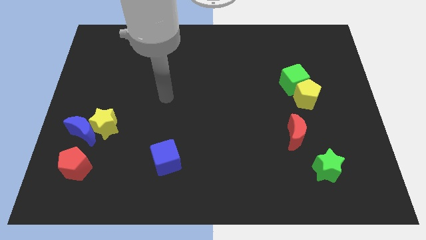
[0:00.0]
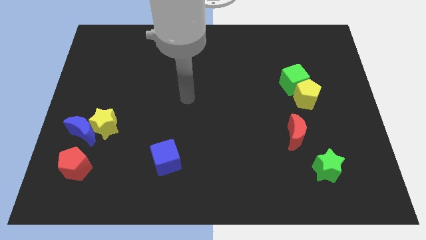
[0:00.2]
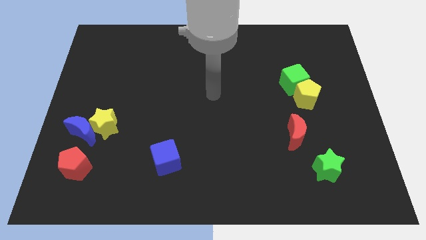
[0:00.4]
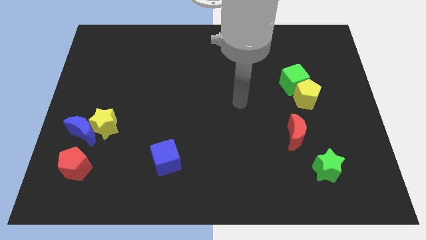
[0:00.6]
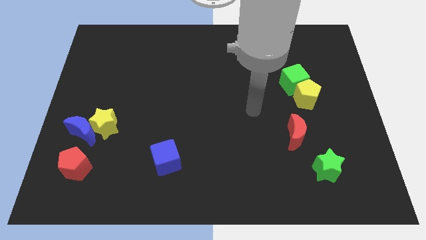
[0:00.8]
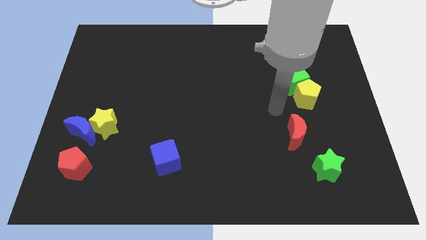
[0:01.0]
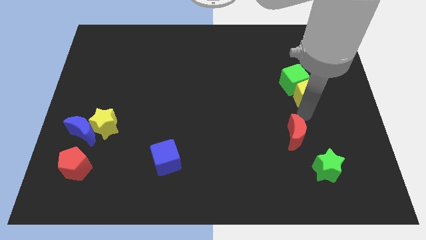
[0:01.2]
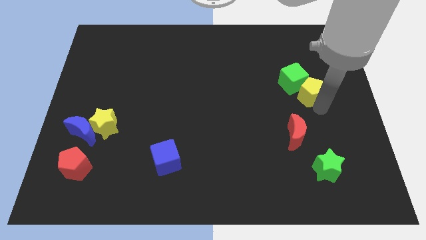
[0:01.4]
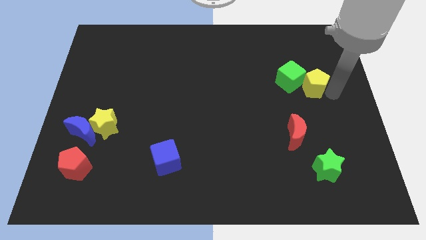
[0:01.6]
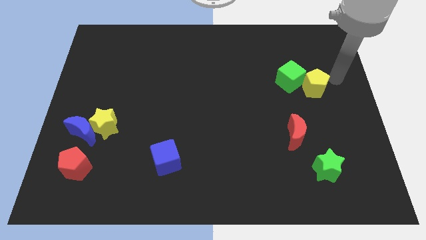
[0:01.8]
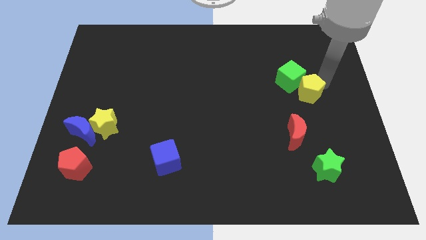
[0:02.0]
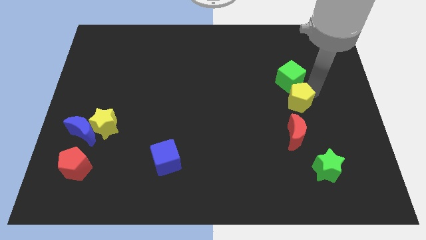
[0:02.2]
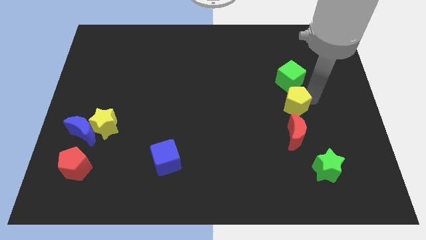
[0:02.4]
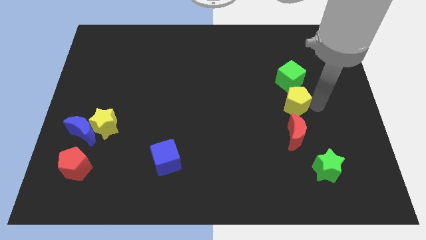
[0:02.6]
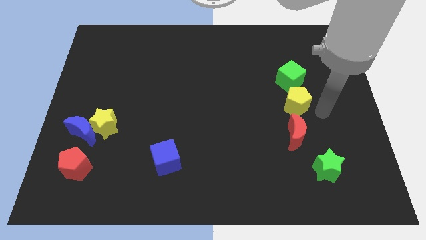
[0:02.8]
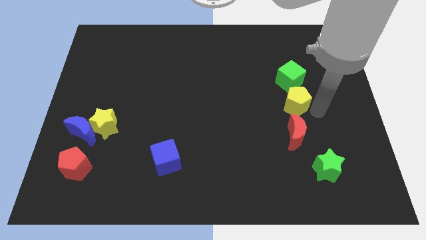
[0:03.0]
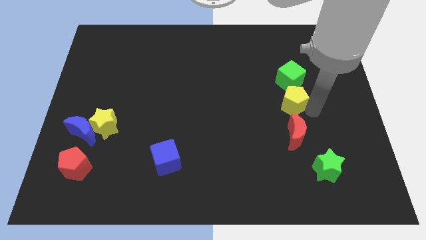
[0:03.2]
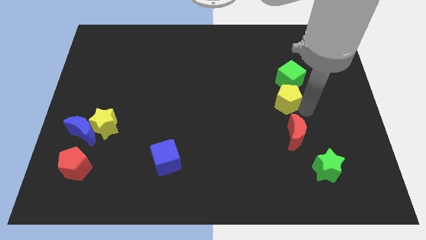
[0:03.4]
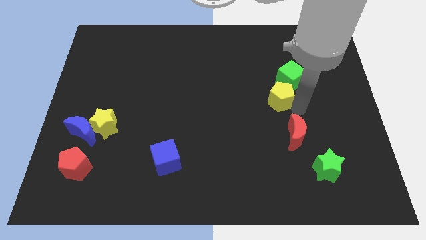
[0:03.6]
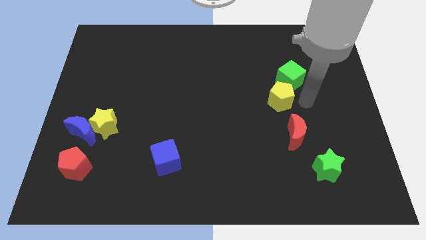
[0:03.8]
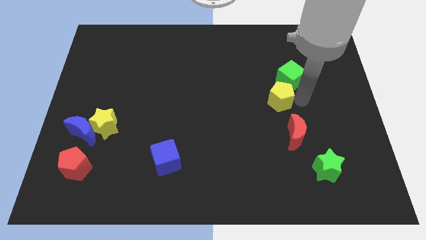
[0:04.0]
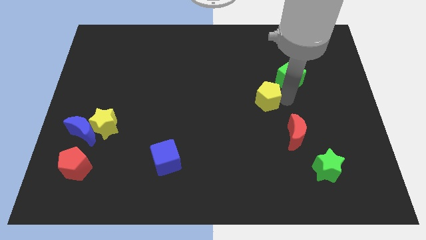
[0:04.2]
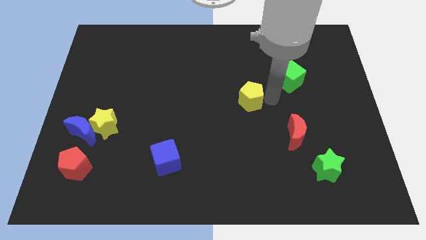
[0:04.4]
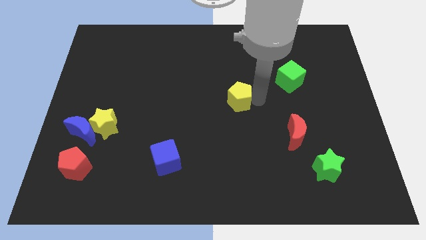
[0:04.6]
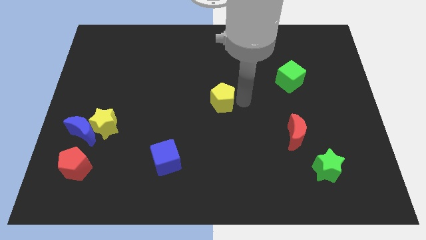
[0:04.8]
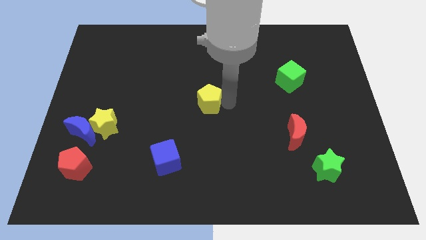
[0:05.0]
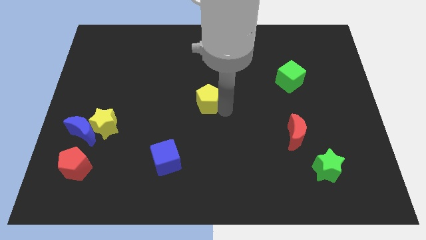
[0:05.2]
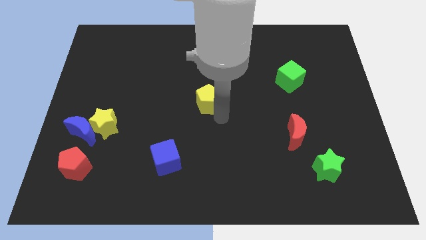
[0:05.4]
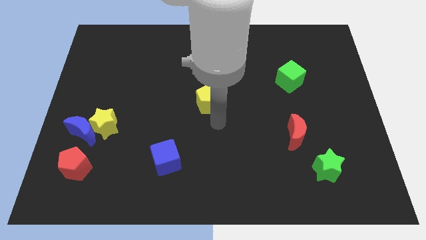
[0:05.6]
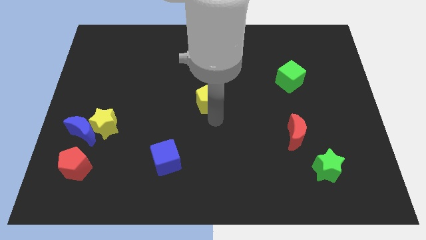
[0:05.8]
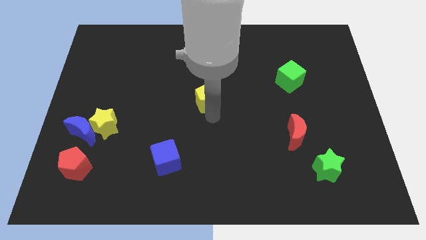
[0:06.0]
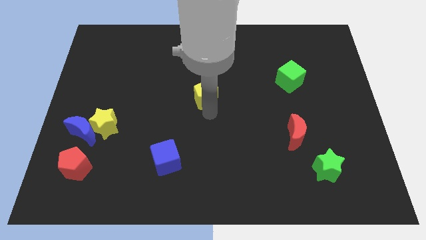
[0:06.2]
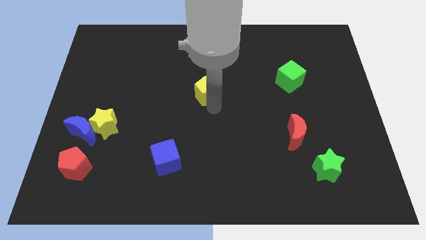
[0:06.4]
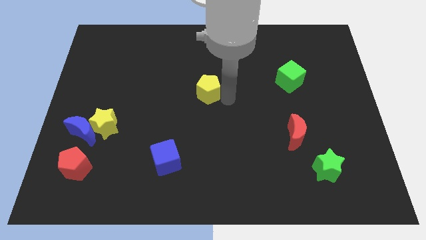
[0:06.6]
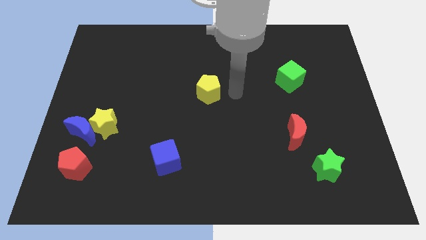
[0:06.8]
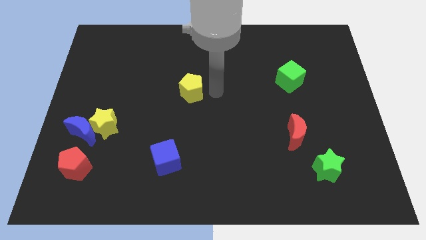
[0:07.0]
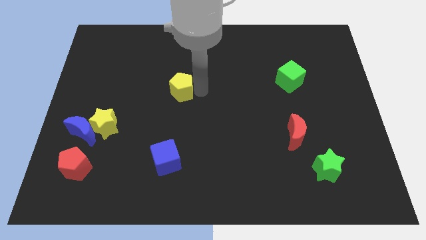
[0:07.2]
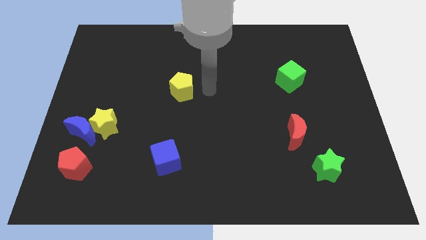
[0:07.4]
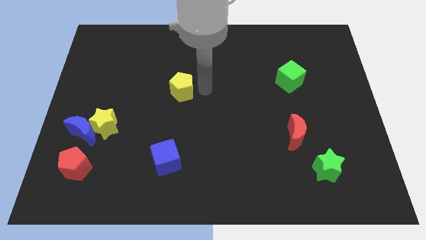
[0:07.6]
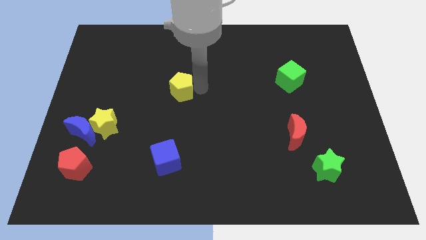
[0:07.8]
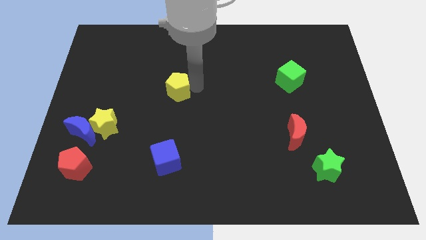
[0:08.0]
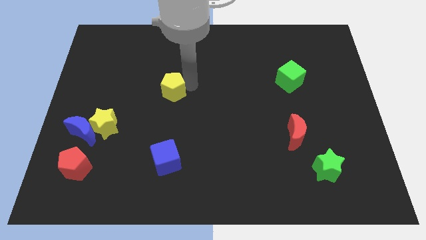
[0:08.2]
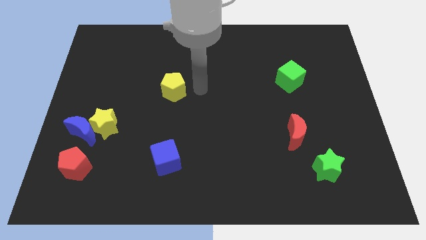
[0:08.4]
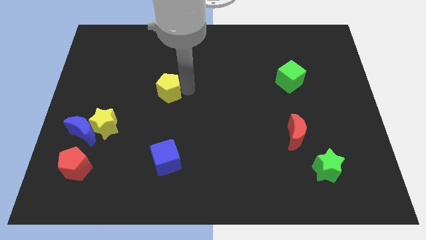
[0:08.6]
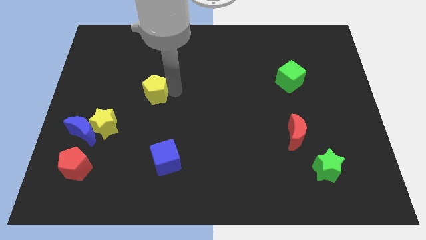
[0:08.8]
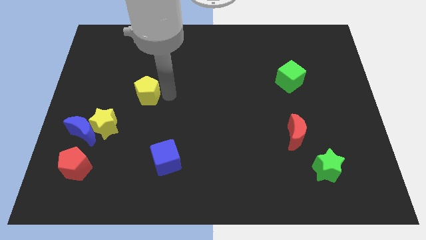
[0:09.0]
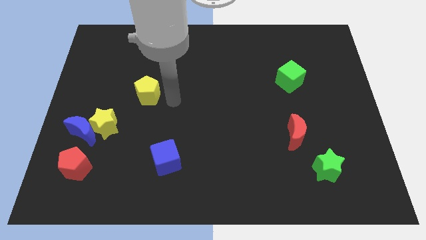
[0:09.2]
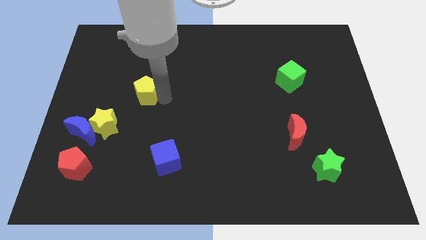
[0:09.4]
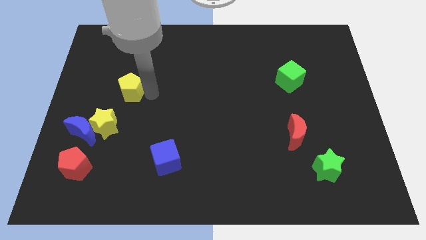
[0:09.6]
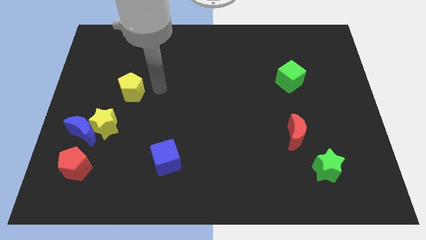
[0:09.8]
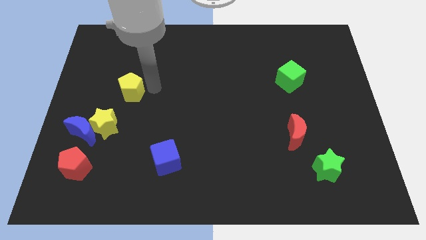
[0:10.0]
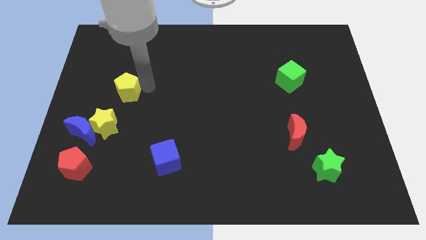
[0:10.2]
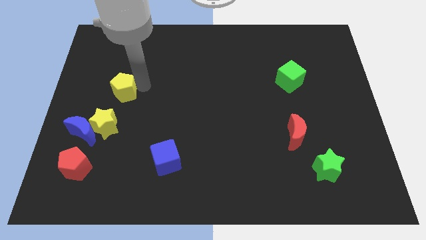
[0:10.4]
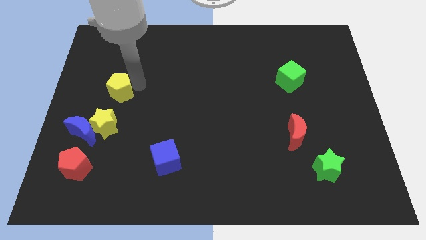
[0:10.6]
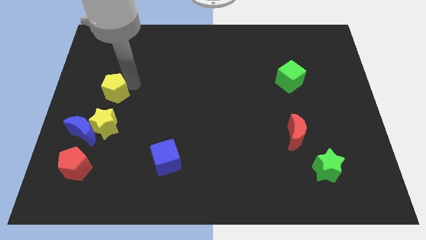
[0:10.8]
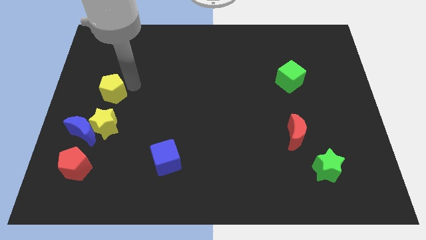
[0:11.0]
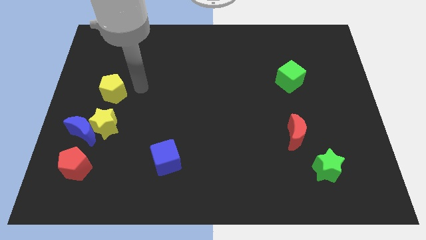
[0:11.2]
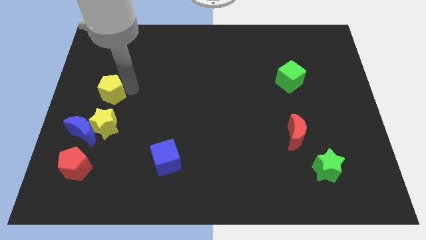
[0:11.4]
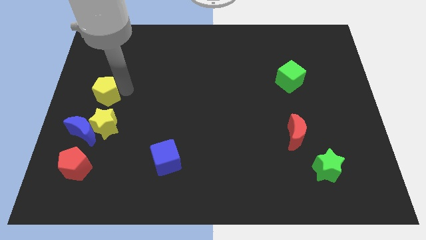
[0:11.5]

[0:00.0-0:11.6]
slide the yellow pentagon to the left side of the board
